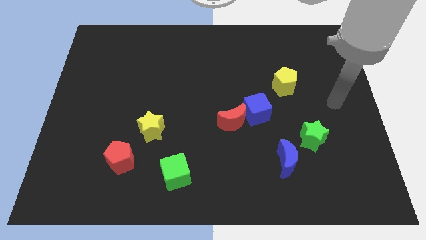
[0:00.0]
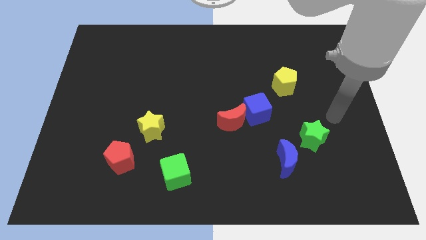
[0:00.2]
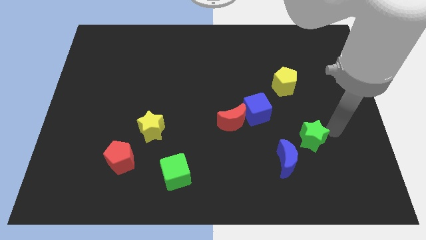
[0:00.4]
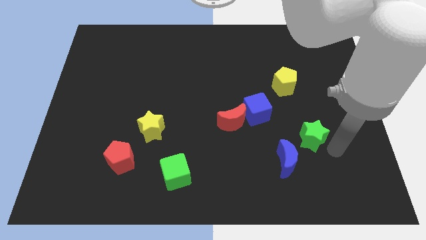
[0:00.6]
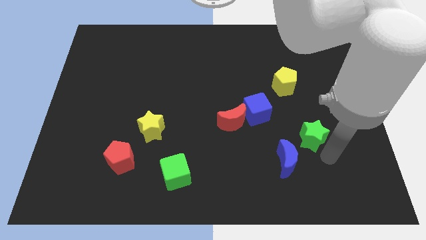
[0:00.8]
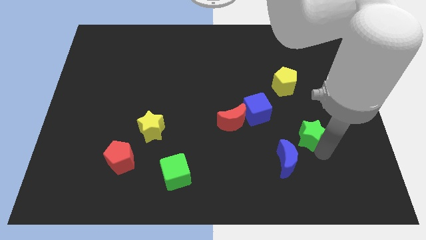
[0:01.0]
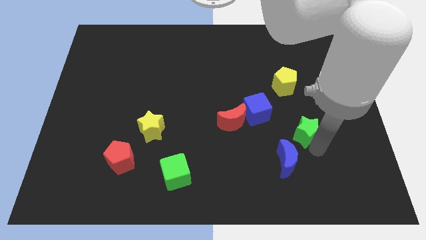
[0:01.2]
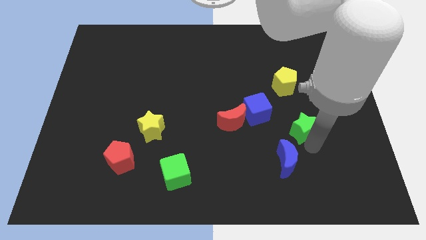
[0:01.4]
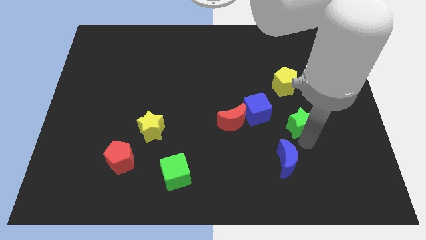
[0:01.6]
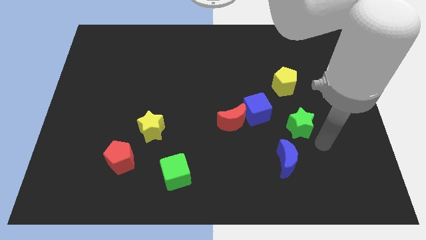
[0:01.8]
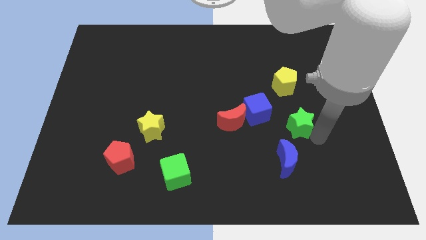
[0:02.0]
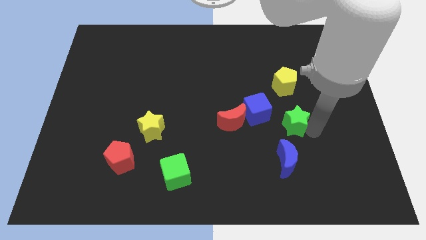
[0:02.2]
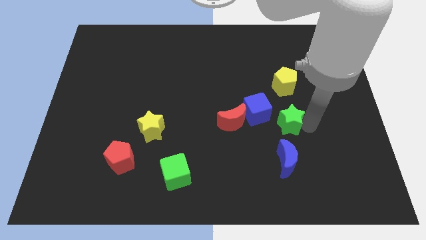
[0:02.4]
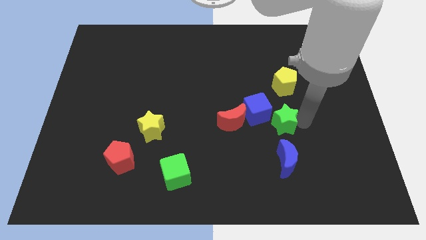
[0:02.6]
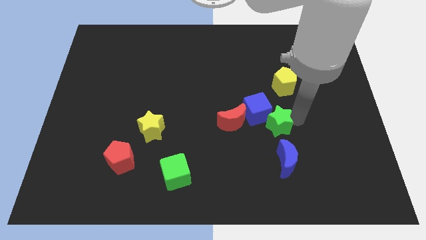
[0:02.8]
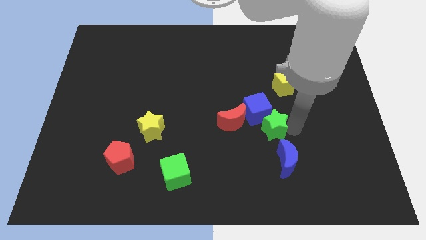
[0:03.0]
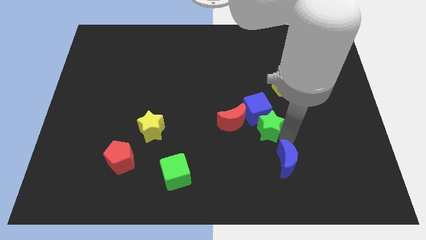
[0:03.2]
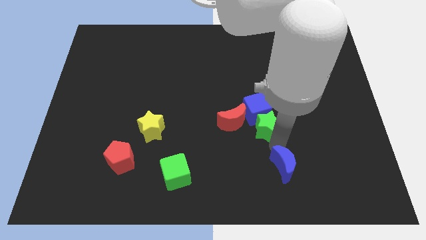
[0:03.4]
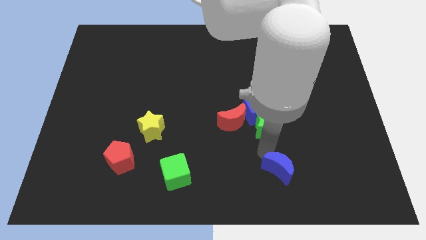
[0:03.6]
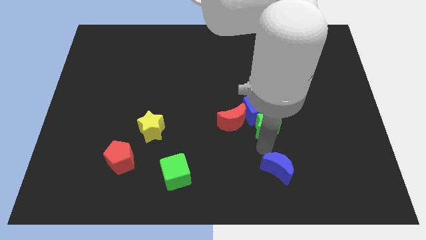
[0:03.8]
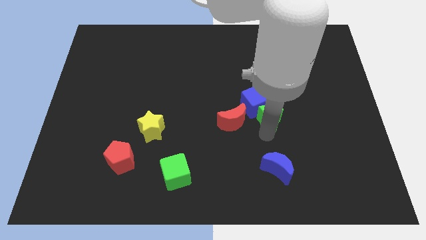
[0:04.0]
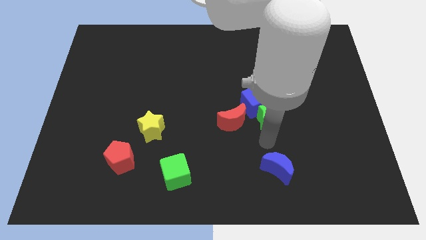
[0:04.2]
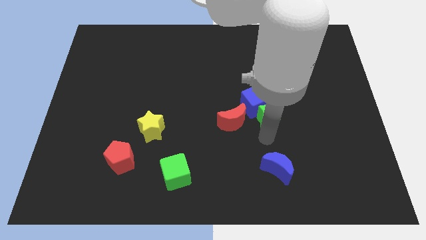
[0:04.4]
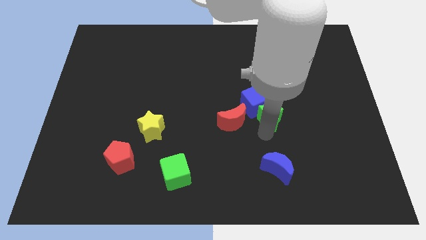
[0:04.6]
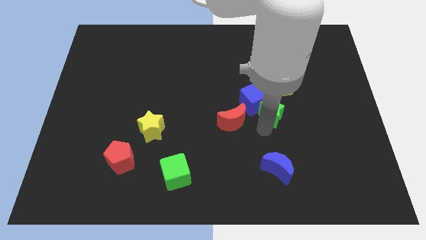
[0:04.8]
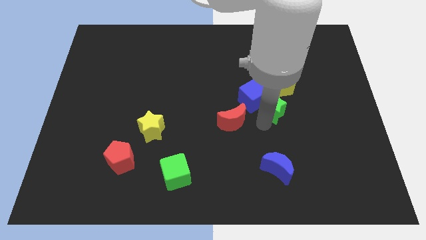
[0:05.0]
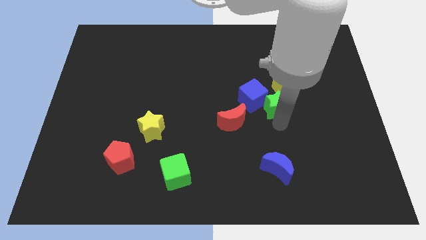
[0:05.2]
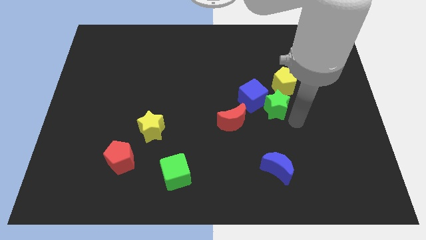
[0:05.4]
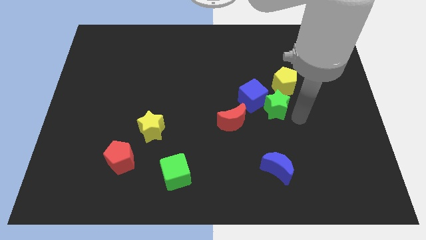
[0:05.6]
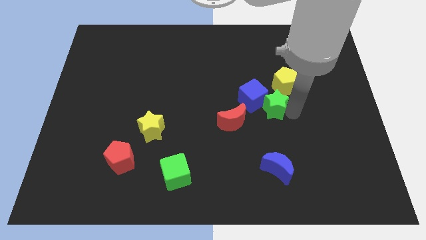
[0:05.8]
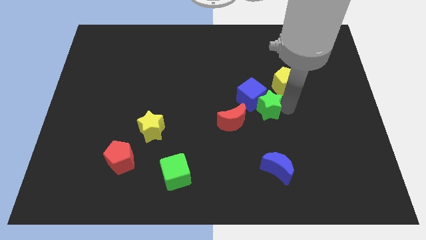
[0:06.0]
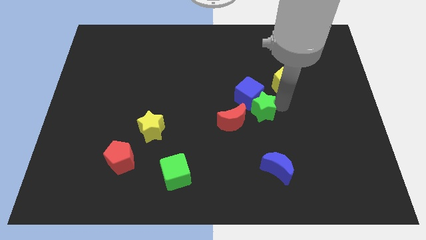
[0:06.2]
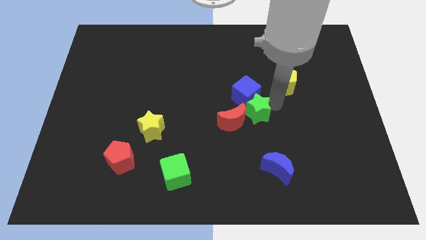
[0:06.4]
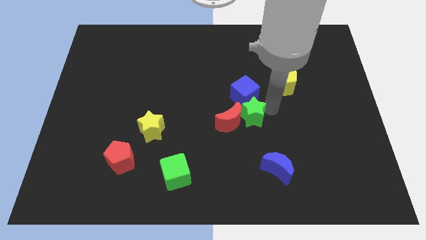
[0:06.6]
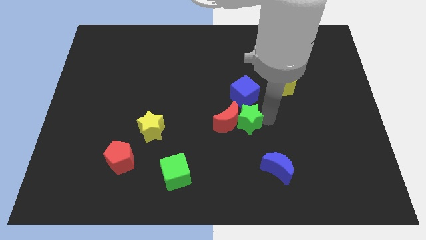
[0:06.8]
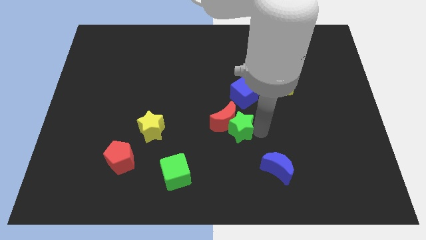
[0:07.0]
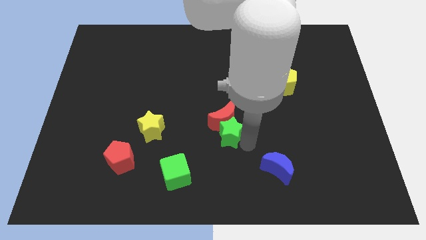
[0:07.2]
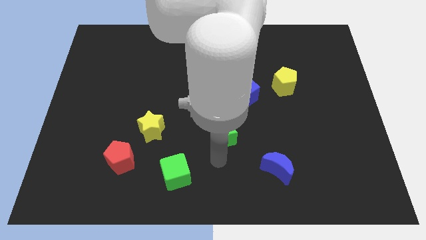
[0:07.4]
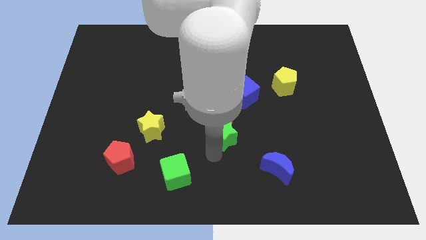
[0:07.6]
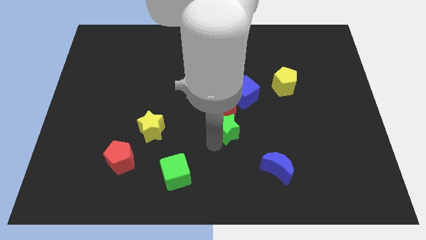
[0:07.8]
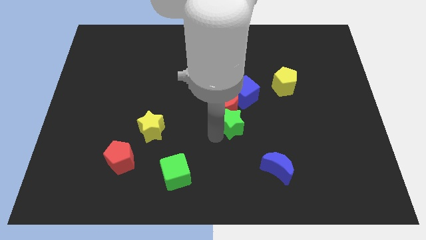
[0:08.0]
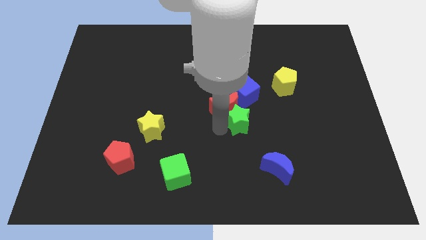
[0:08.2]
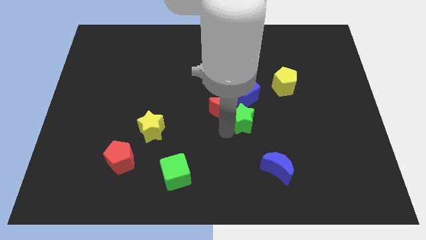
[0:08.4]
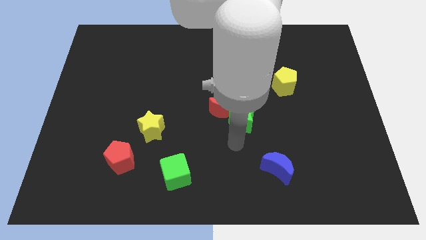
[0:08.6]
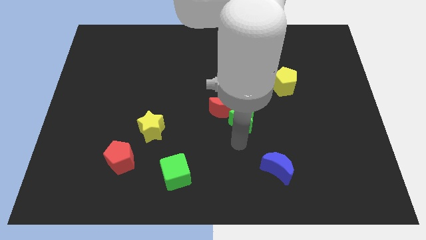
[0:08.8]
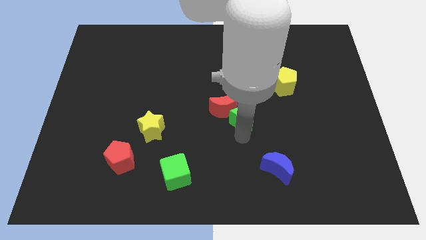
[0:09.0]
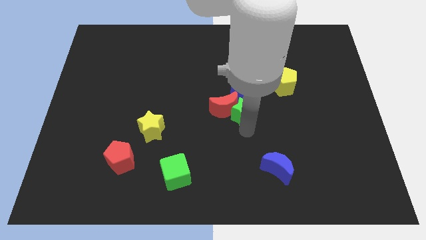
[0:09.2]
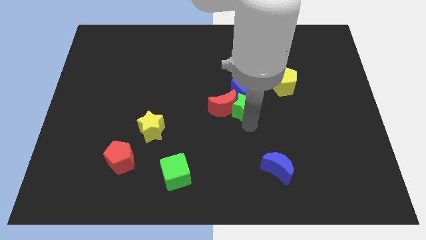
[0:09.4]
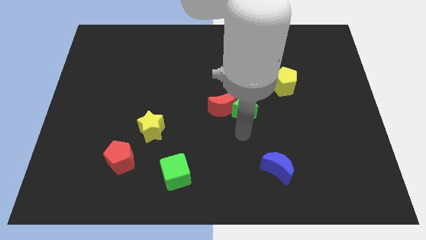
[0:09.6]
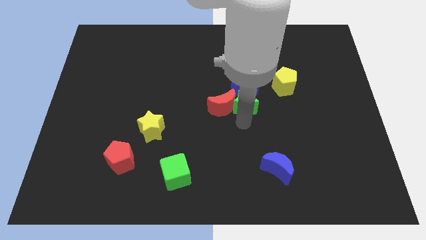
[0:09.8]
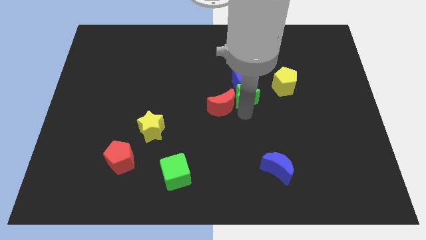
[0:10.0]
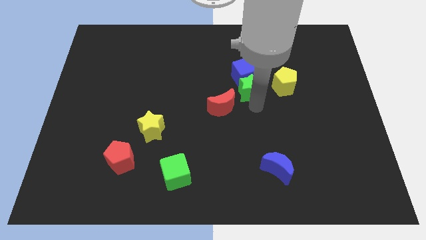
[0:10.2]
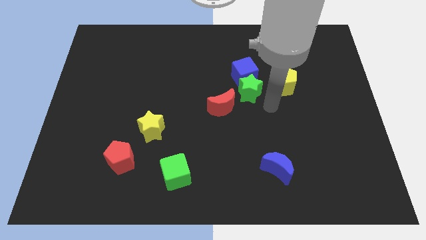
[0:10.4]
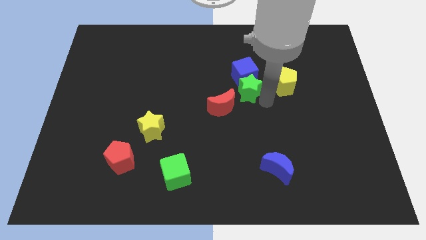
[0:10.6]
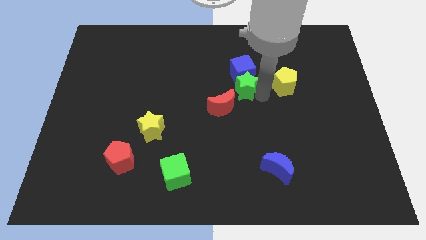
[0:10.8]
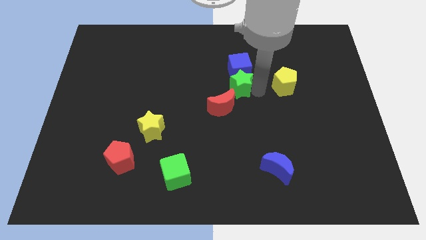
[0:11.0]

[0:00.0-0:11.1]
slide the green star above the red moon
